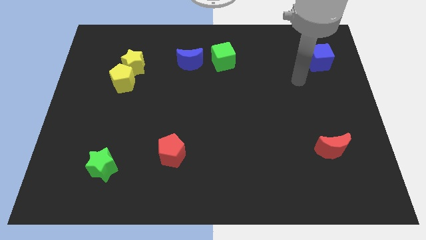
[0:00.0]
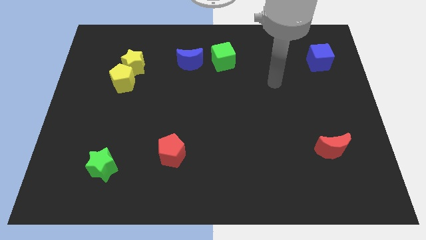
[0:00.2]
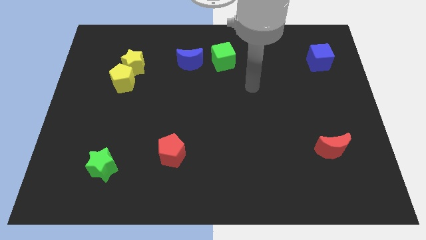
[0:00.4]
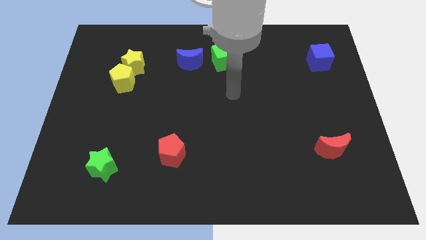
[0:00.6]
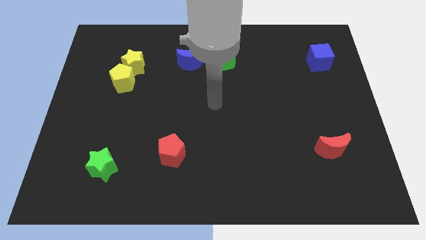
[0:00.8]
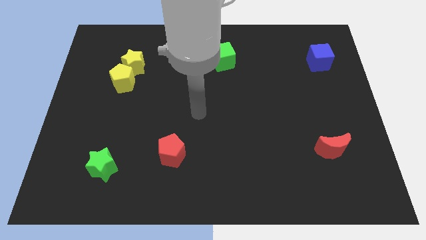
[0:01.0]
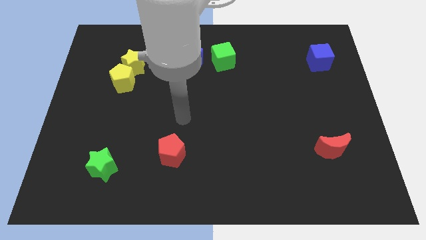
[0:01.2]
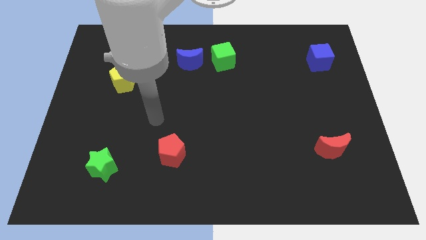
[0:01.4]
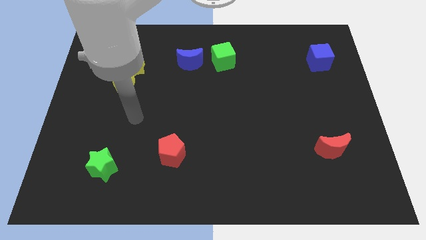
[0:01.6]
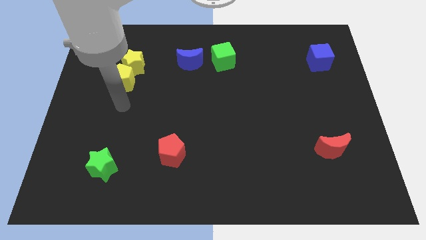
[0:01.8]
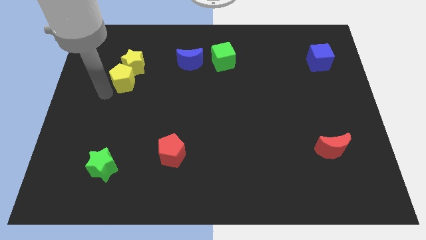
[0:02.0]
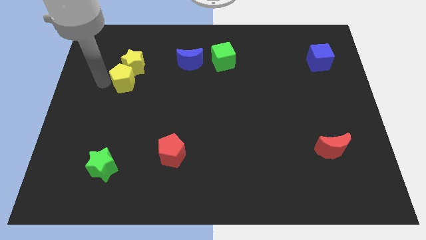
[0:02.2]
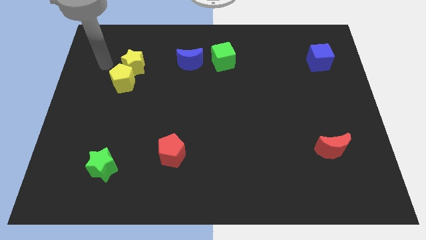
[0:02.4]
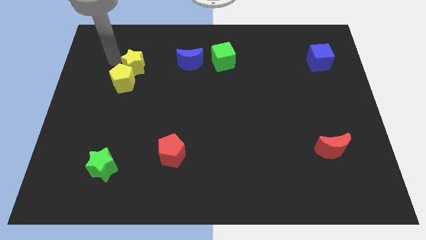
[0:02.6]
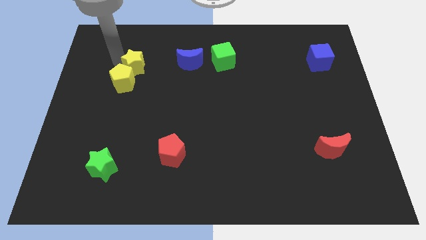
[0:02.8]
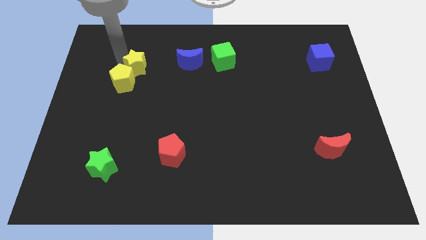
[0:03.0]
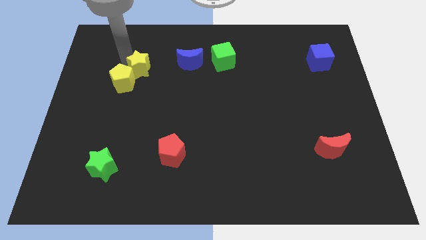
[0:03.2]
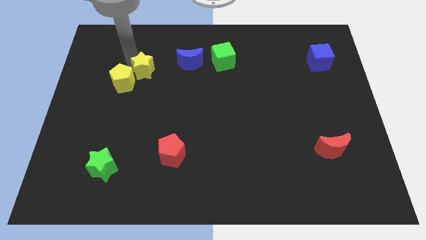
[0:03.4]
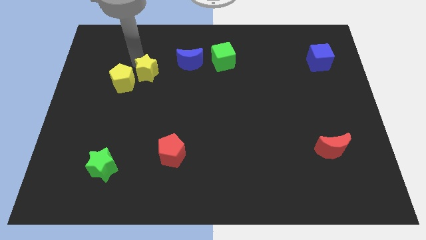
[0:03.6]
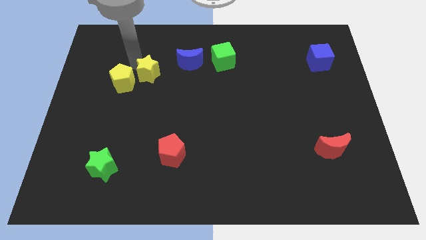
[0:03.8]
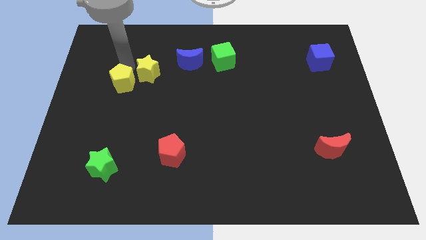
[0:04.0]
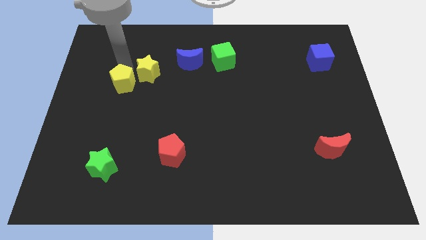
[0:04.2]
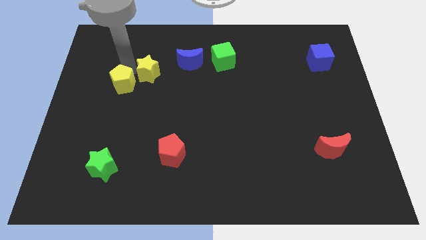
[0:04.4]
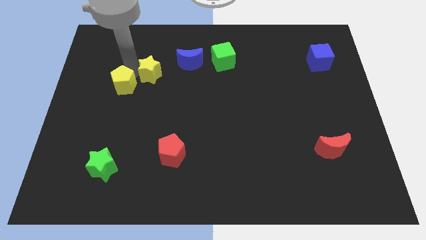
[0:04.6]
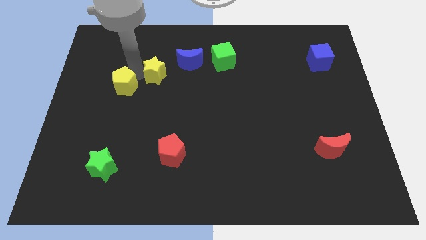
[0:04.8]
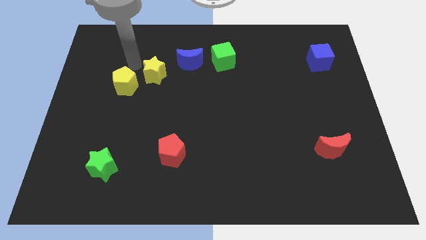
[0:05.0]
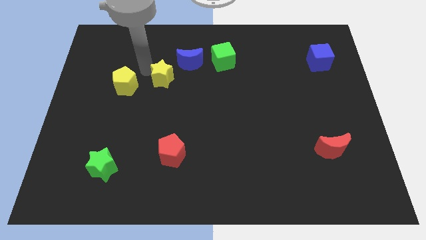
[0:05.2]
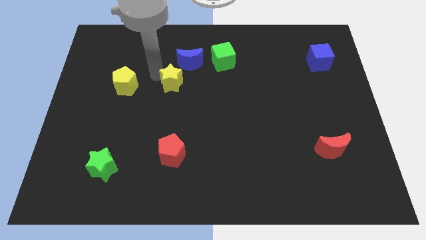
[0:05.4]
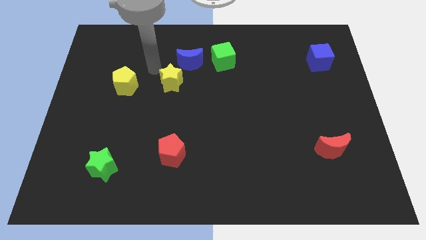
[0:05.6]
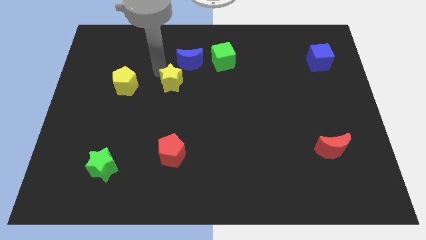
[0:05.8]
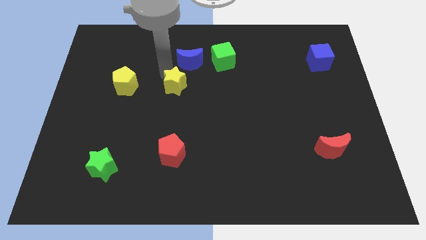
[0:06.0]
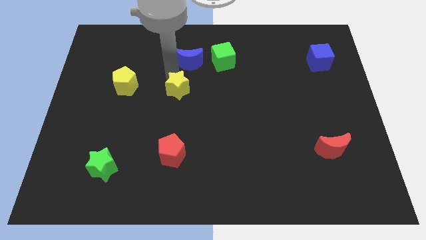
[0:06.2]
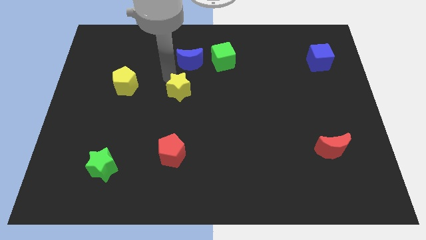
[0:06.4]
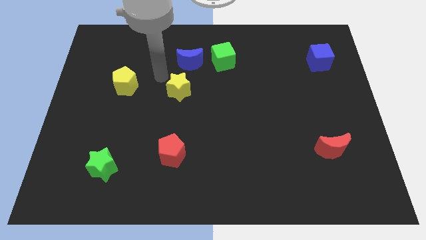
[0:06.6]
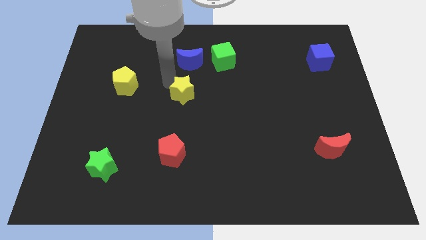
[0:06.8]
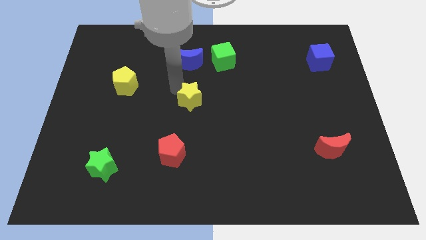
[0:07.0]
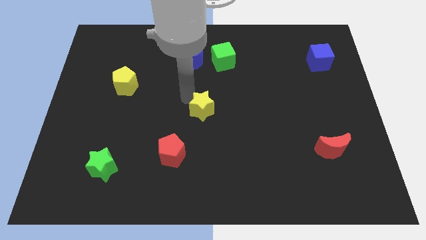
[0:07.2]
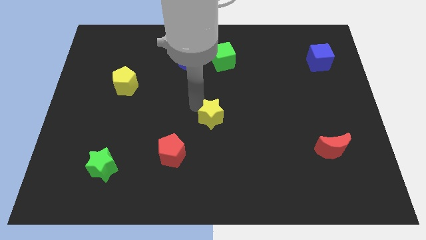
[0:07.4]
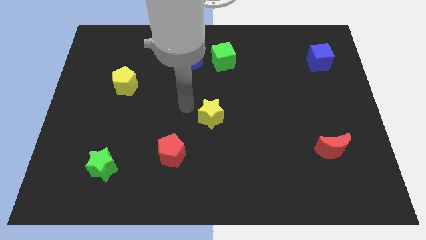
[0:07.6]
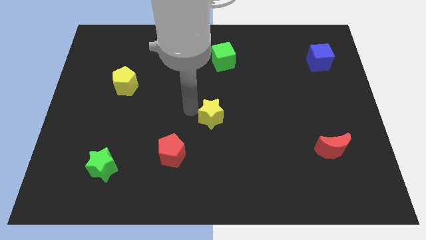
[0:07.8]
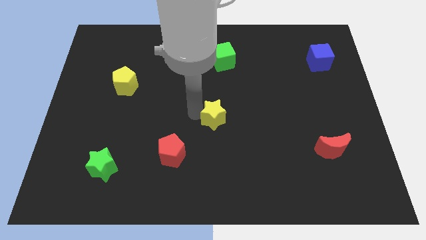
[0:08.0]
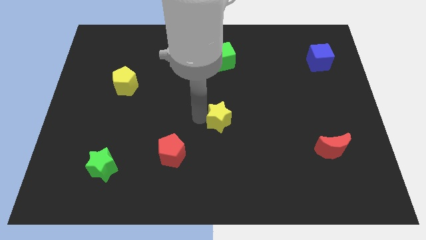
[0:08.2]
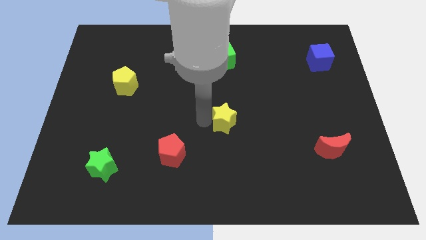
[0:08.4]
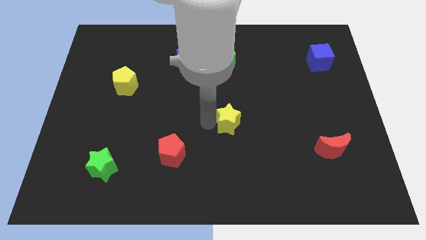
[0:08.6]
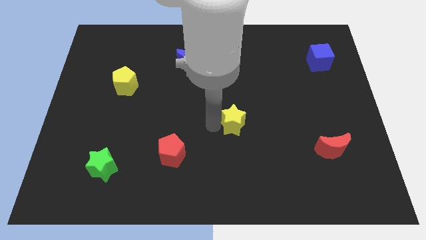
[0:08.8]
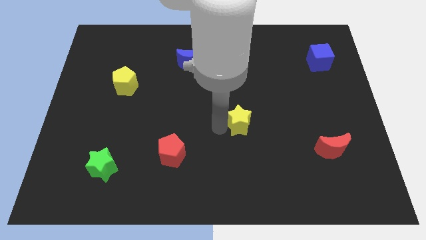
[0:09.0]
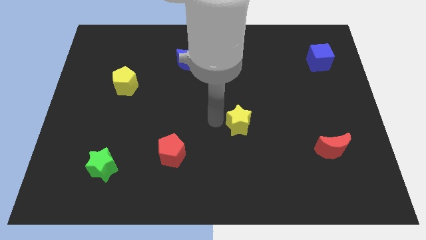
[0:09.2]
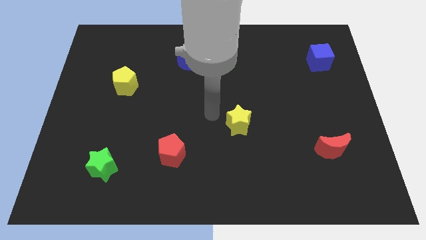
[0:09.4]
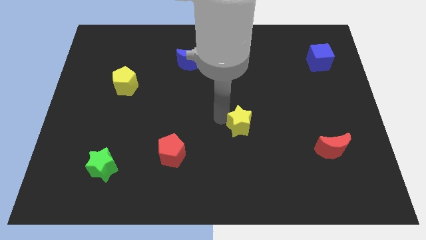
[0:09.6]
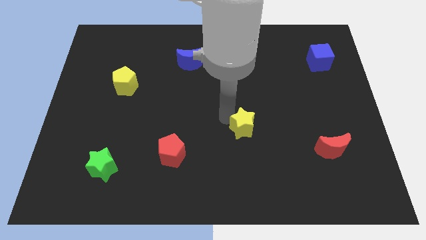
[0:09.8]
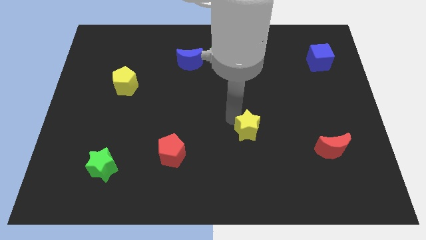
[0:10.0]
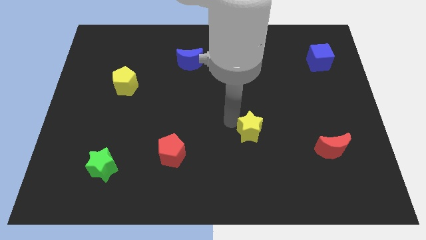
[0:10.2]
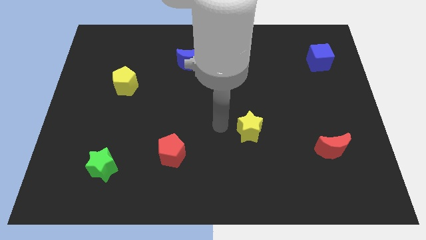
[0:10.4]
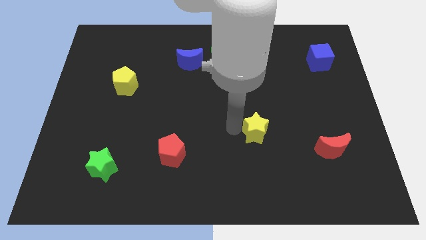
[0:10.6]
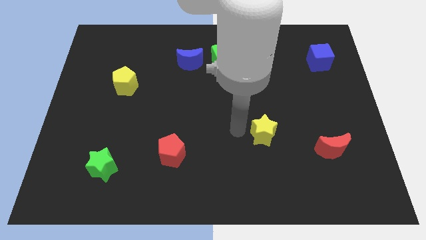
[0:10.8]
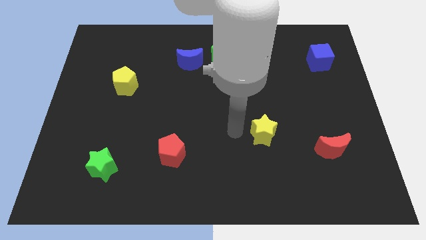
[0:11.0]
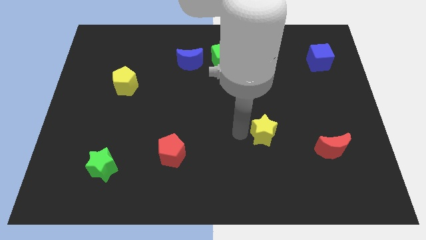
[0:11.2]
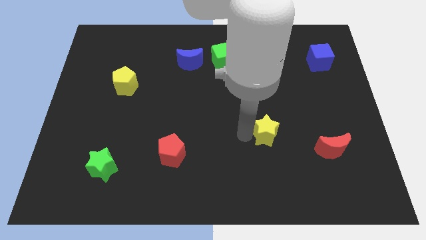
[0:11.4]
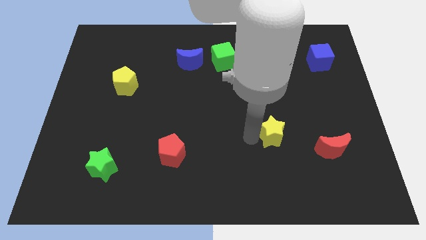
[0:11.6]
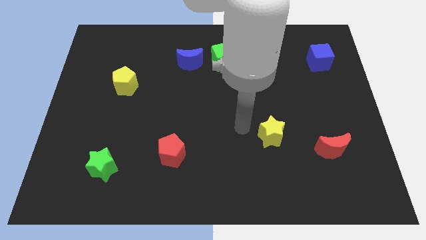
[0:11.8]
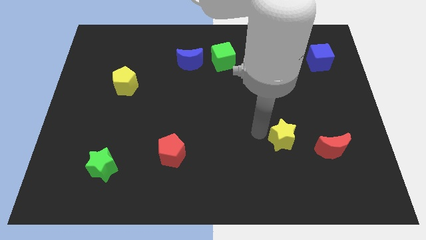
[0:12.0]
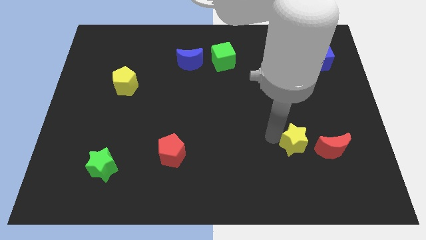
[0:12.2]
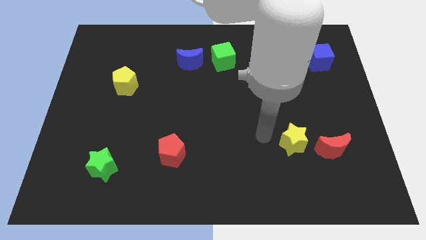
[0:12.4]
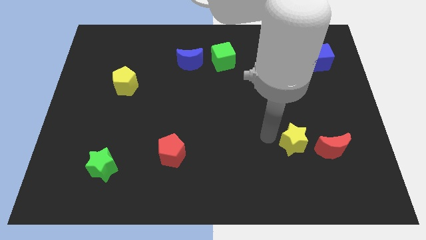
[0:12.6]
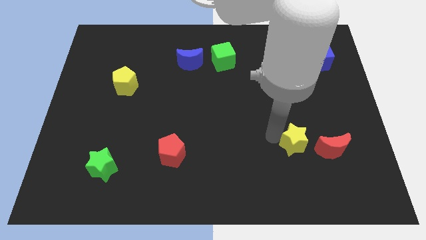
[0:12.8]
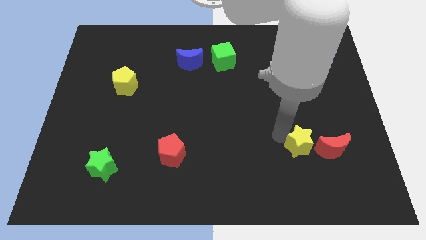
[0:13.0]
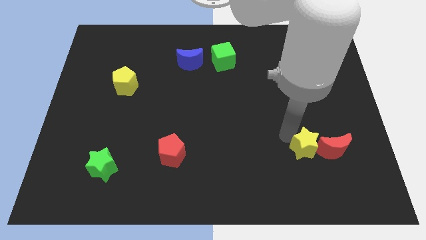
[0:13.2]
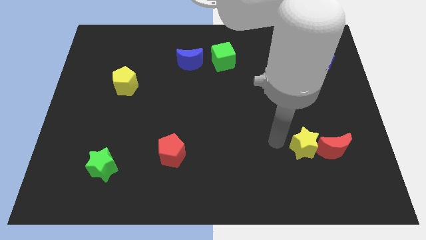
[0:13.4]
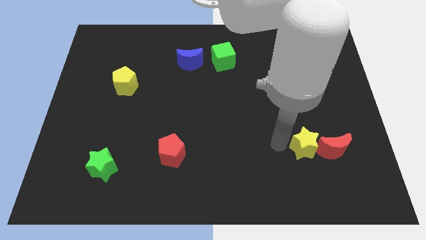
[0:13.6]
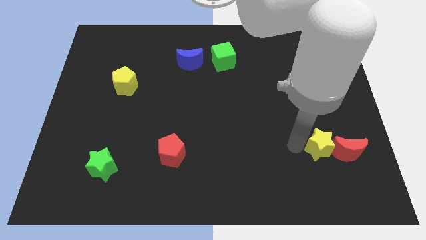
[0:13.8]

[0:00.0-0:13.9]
put the yellow star close to the red moon
